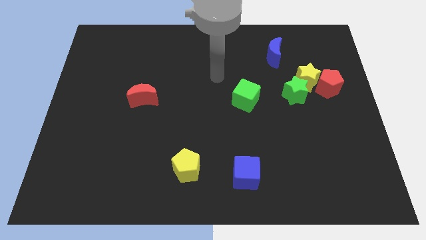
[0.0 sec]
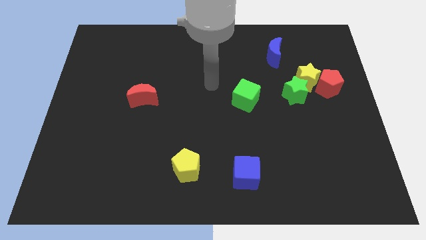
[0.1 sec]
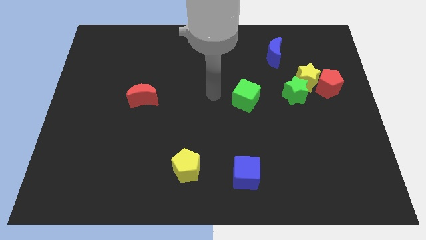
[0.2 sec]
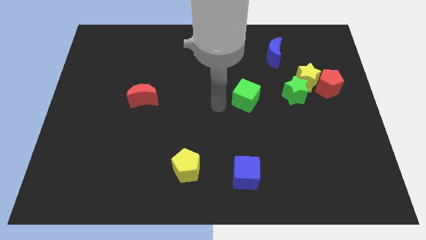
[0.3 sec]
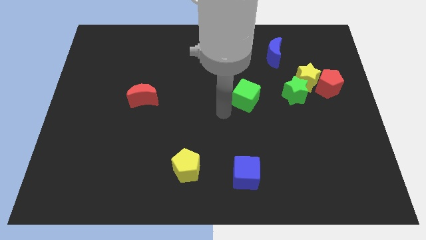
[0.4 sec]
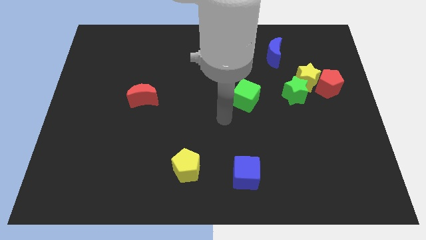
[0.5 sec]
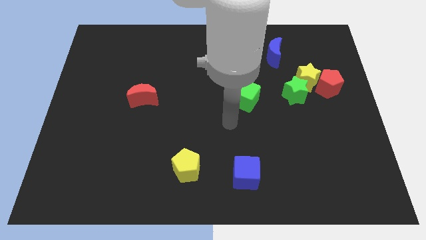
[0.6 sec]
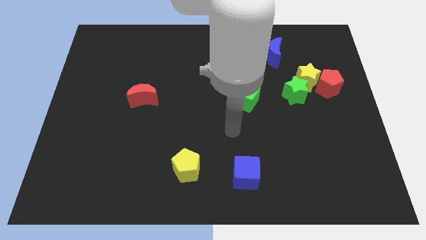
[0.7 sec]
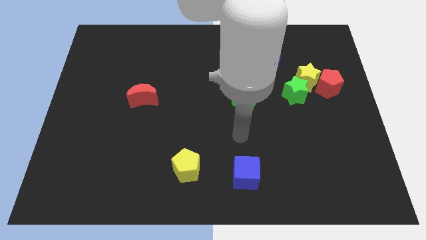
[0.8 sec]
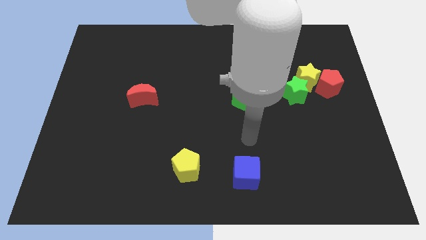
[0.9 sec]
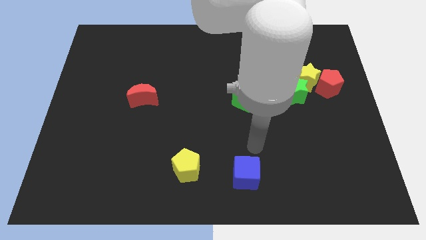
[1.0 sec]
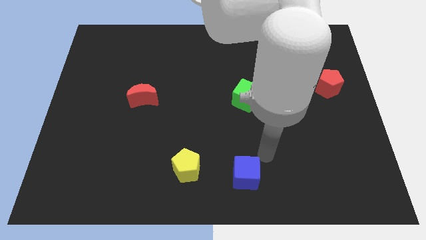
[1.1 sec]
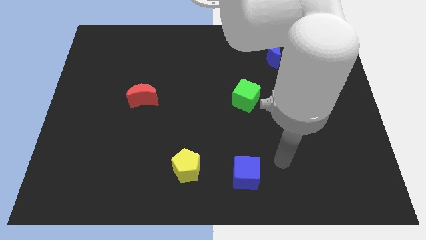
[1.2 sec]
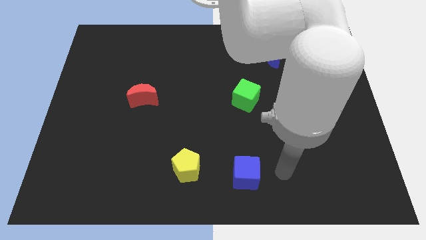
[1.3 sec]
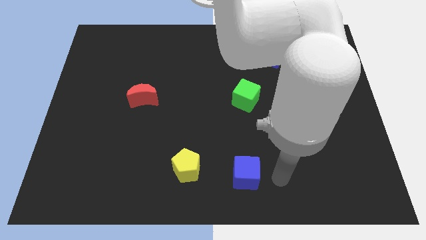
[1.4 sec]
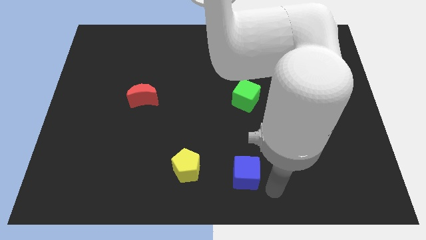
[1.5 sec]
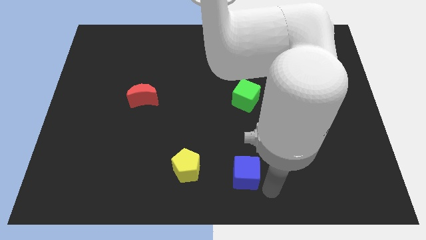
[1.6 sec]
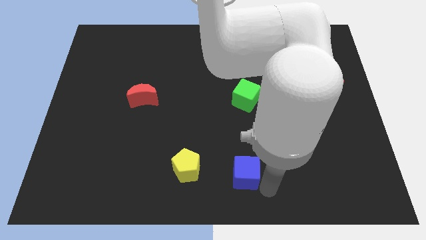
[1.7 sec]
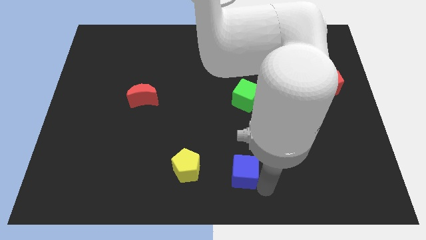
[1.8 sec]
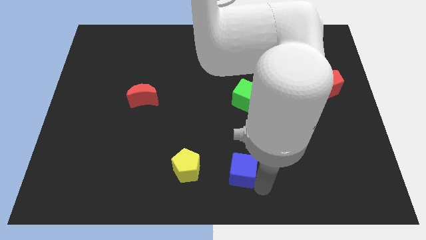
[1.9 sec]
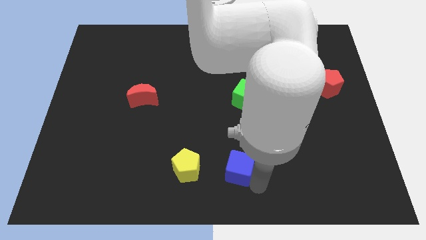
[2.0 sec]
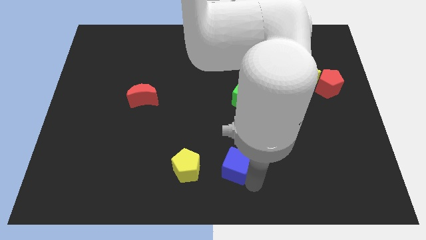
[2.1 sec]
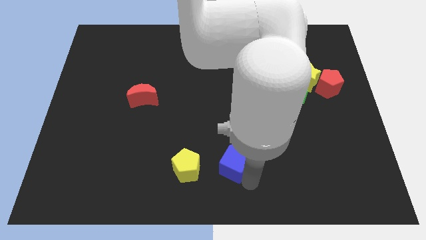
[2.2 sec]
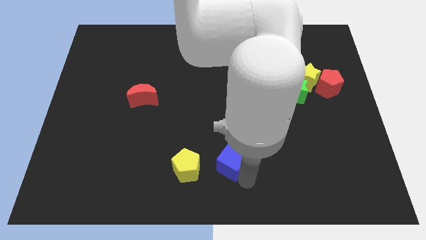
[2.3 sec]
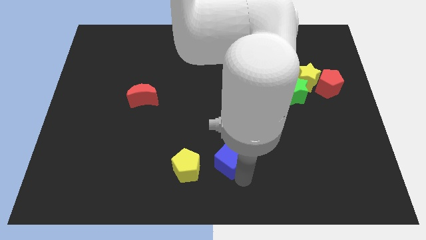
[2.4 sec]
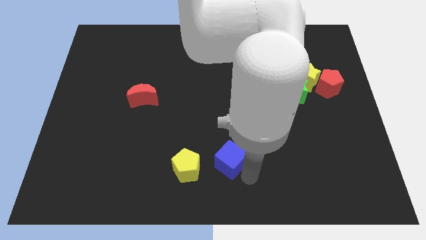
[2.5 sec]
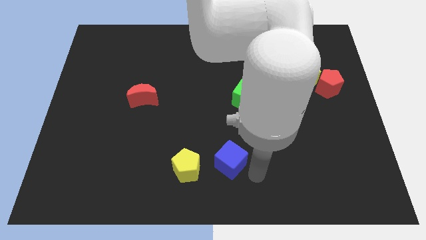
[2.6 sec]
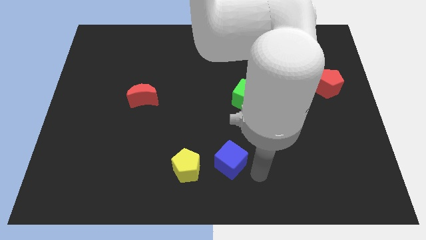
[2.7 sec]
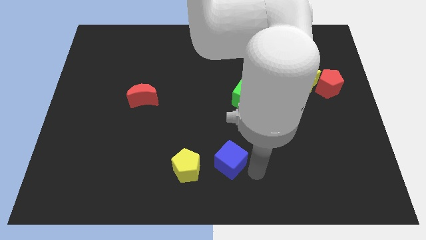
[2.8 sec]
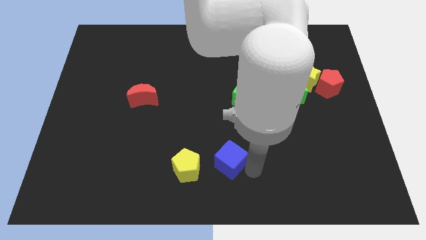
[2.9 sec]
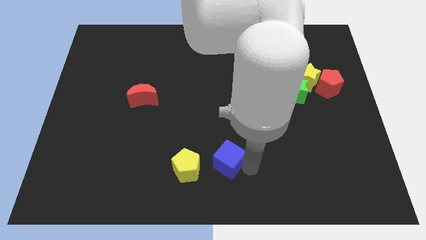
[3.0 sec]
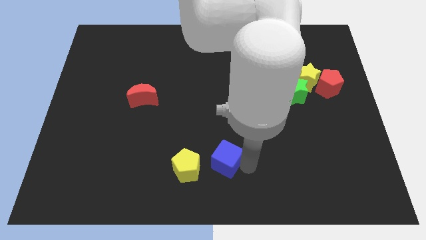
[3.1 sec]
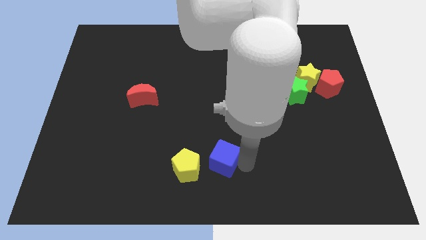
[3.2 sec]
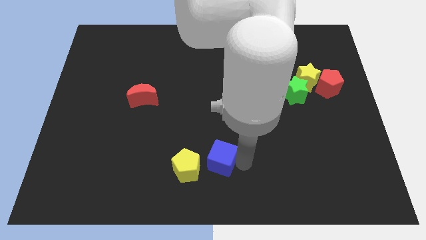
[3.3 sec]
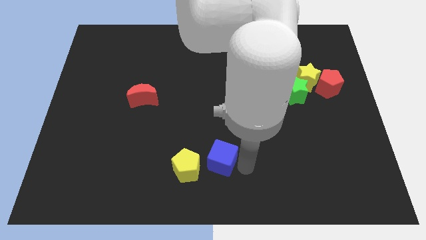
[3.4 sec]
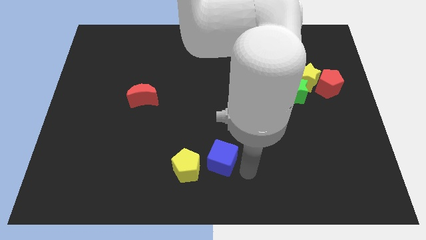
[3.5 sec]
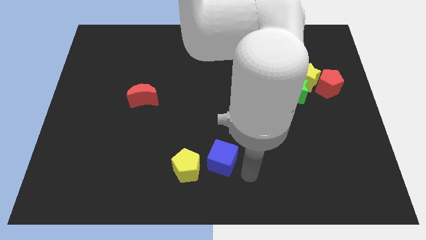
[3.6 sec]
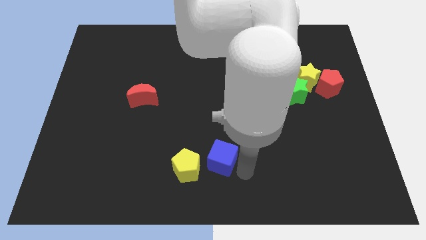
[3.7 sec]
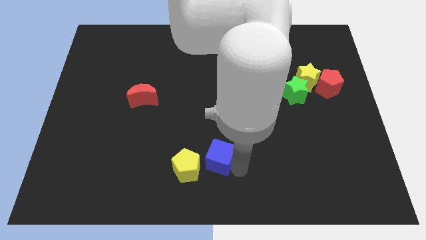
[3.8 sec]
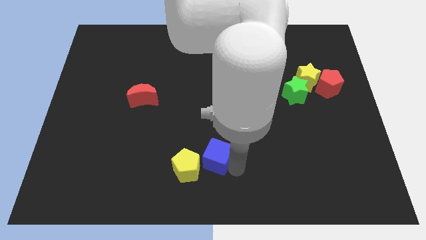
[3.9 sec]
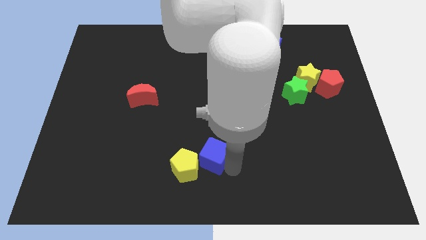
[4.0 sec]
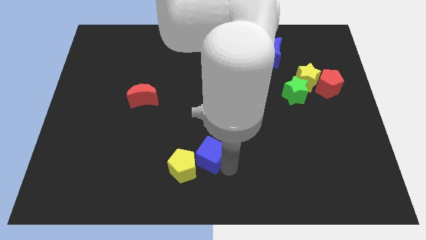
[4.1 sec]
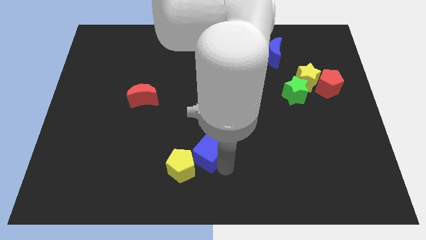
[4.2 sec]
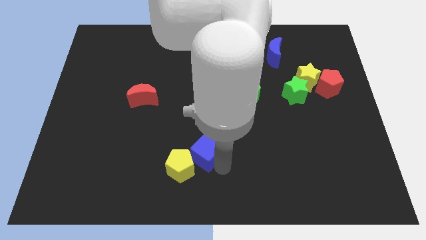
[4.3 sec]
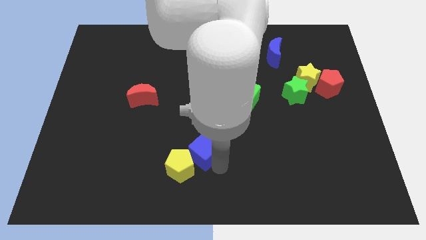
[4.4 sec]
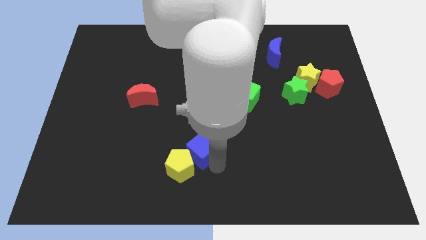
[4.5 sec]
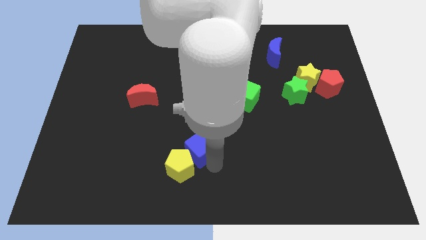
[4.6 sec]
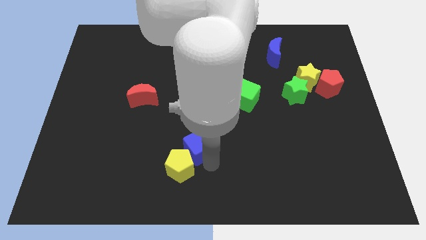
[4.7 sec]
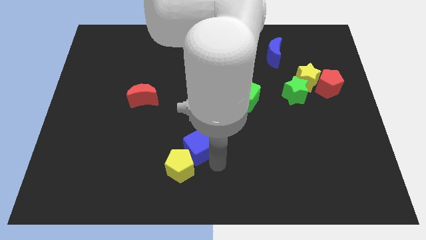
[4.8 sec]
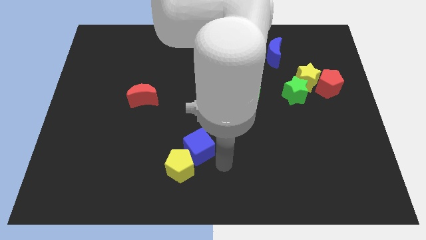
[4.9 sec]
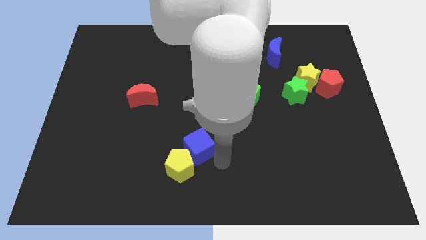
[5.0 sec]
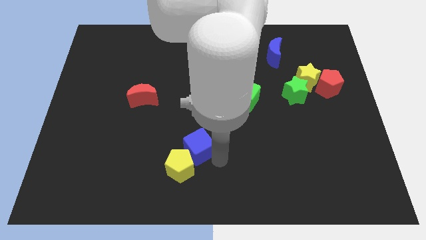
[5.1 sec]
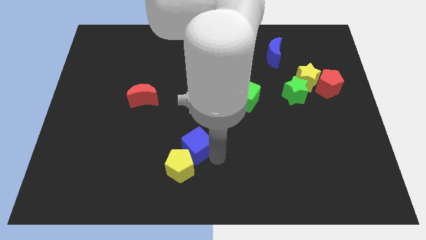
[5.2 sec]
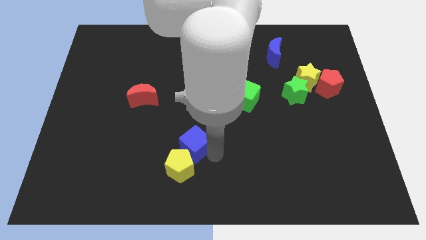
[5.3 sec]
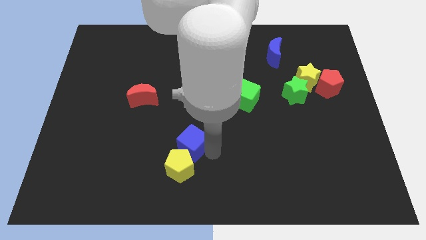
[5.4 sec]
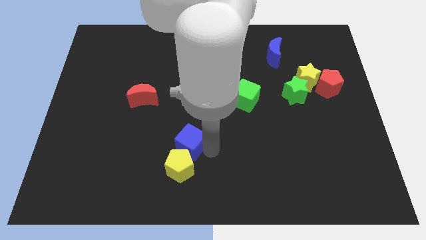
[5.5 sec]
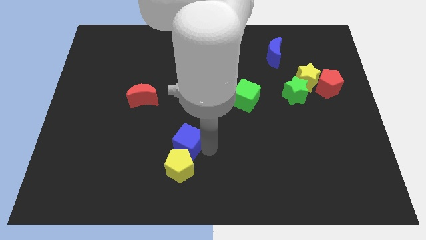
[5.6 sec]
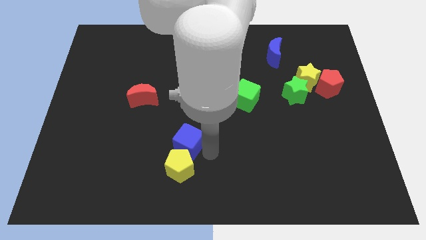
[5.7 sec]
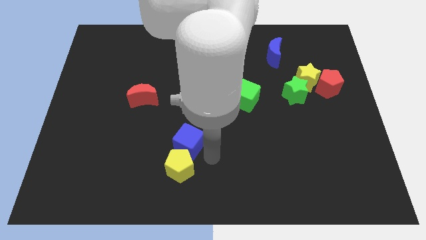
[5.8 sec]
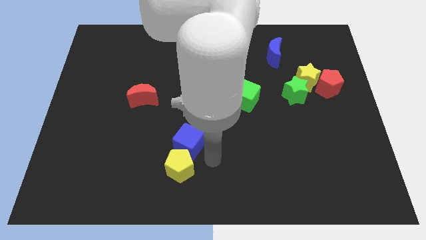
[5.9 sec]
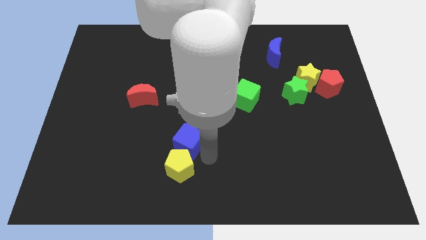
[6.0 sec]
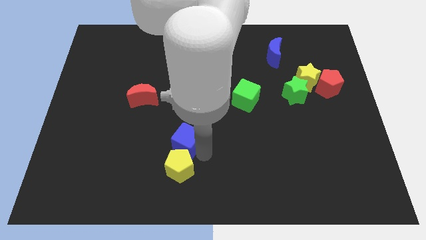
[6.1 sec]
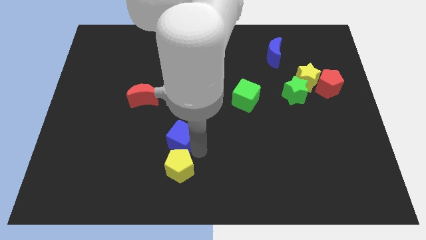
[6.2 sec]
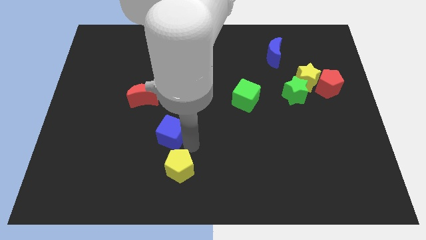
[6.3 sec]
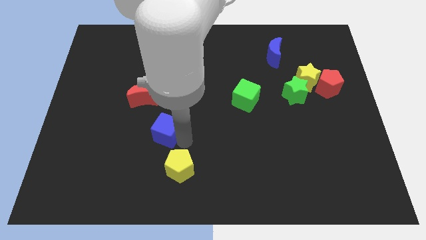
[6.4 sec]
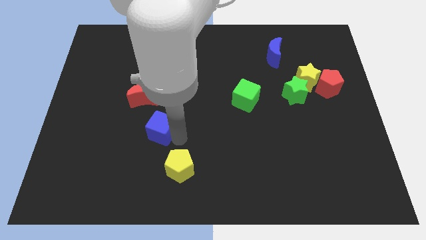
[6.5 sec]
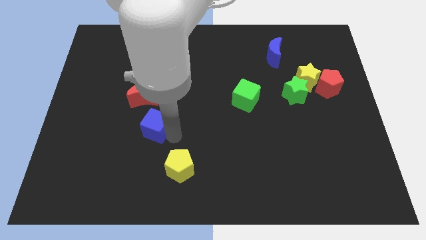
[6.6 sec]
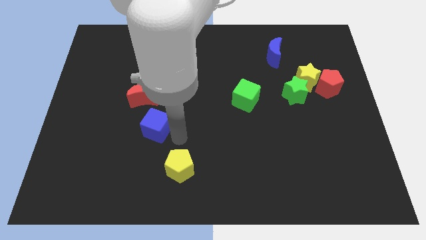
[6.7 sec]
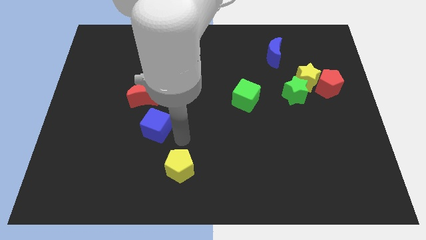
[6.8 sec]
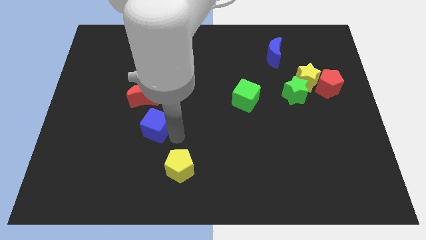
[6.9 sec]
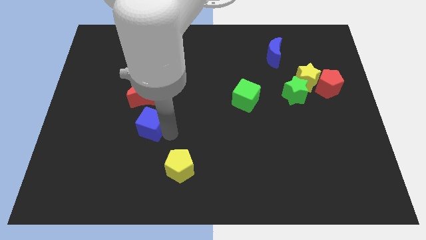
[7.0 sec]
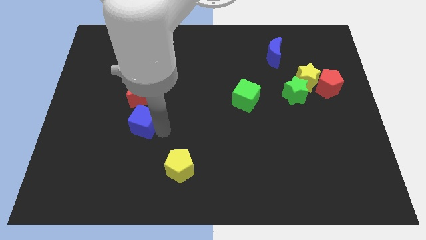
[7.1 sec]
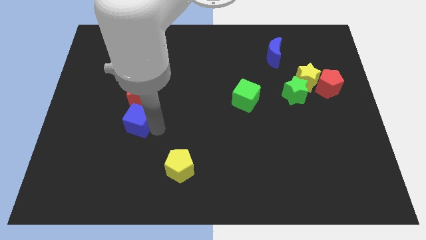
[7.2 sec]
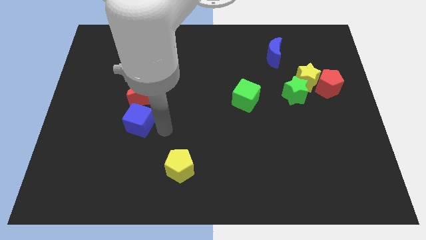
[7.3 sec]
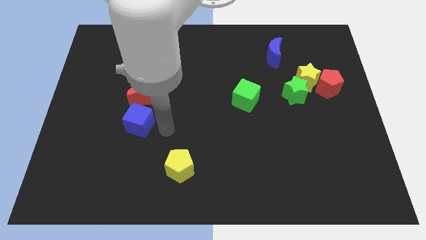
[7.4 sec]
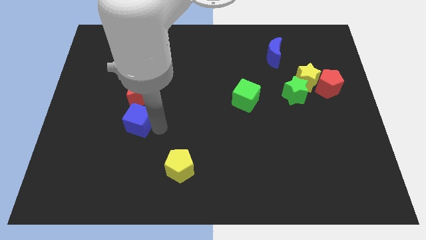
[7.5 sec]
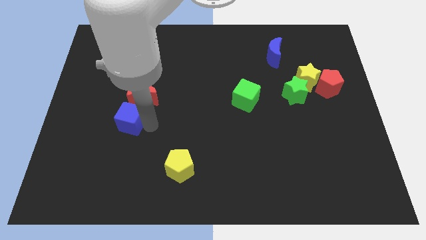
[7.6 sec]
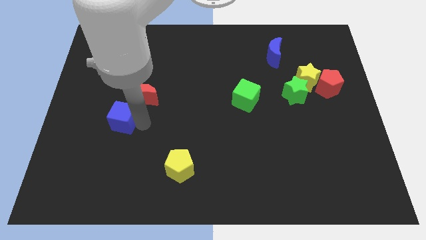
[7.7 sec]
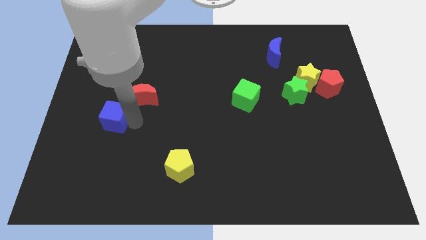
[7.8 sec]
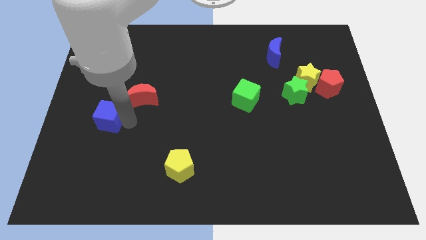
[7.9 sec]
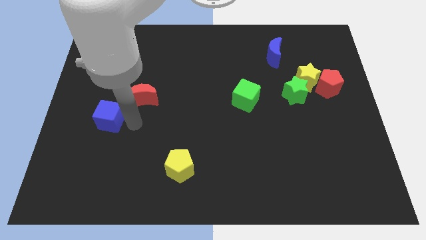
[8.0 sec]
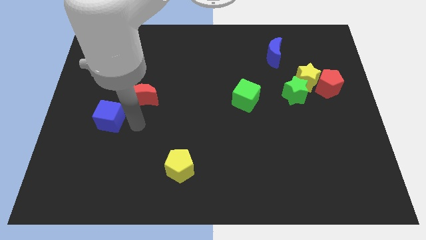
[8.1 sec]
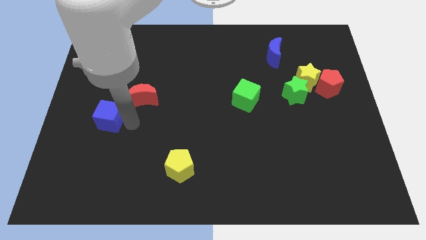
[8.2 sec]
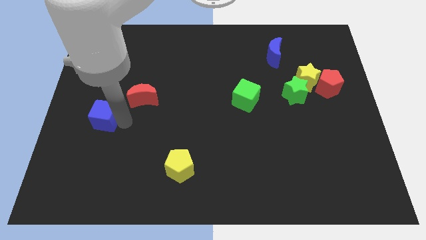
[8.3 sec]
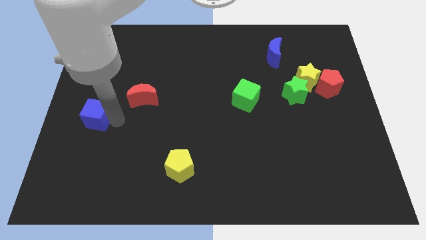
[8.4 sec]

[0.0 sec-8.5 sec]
put the blue cube to the center left
